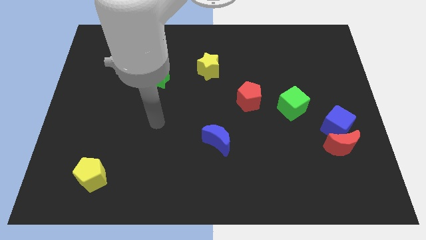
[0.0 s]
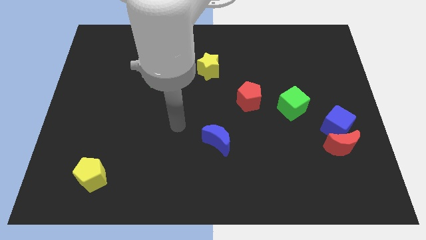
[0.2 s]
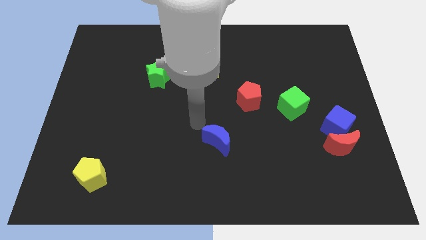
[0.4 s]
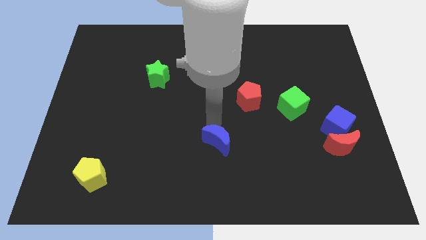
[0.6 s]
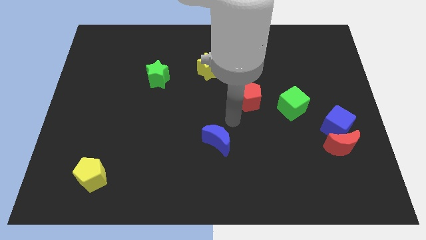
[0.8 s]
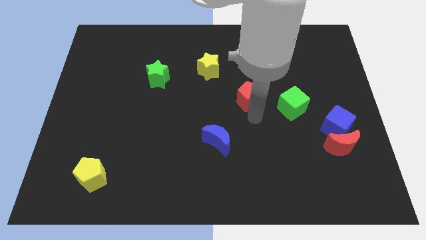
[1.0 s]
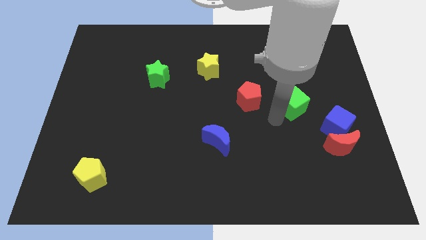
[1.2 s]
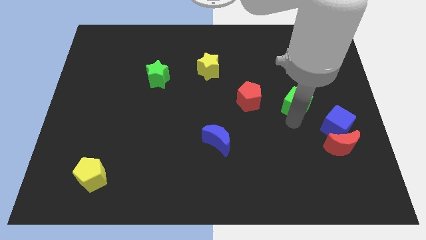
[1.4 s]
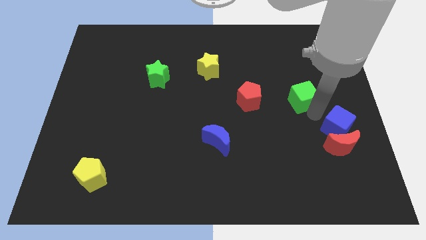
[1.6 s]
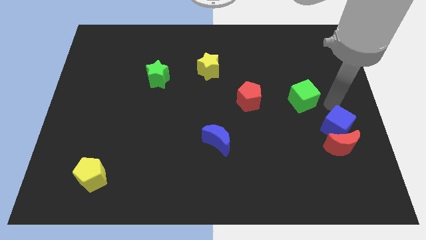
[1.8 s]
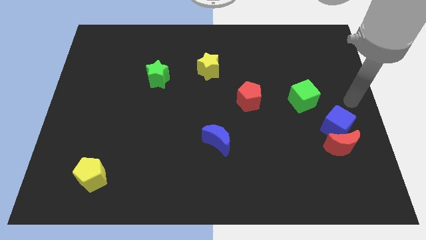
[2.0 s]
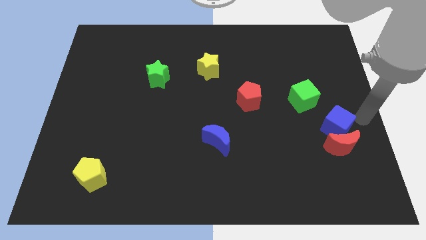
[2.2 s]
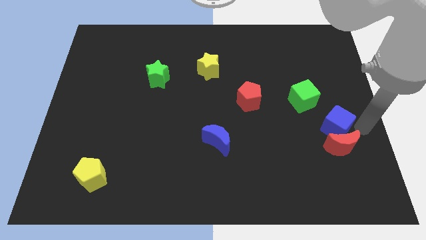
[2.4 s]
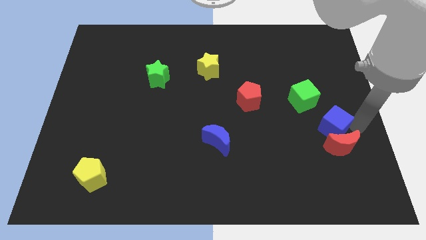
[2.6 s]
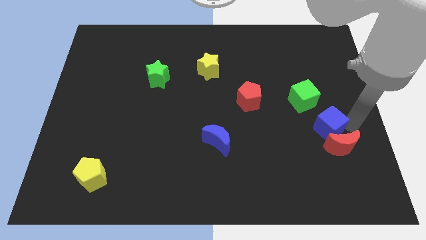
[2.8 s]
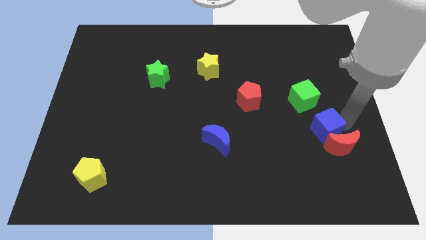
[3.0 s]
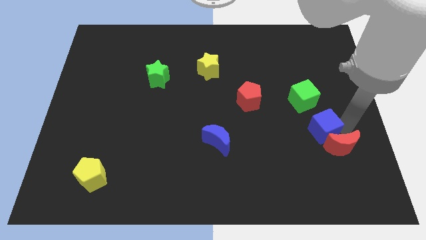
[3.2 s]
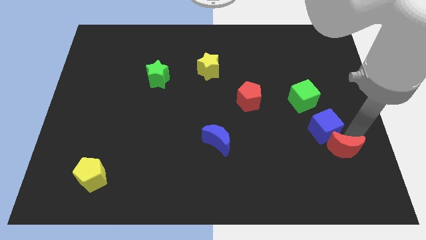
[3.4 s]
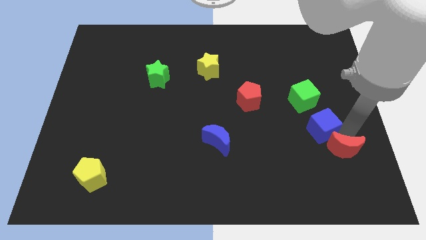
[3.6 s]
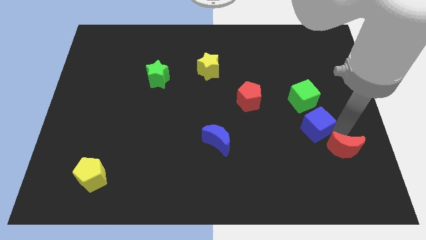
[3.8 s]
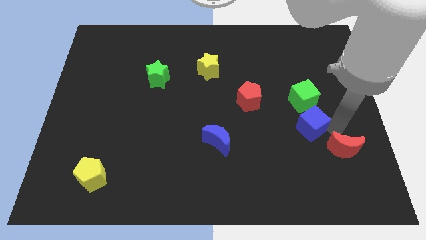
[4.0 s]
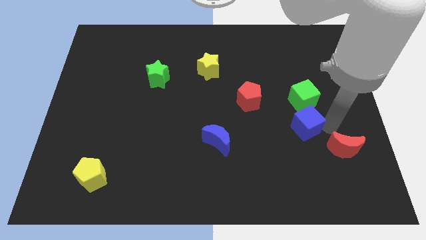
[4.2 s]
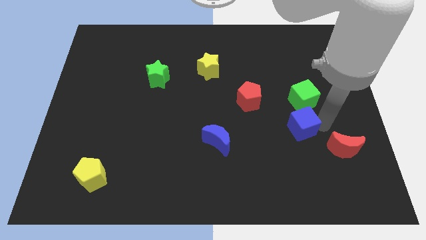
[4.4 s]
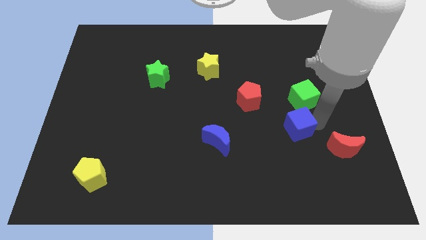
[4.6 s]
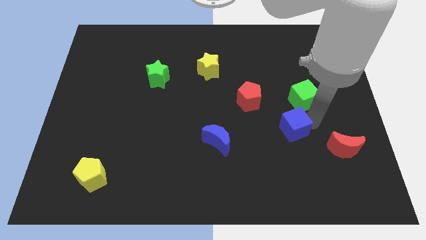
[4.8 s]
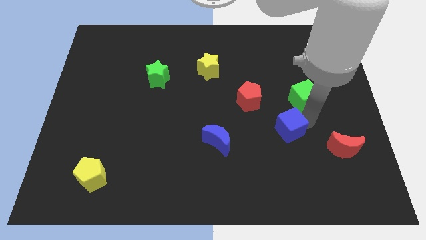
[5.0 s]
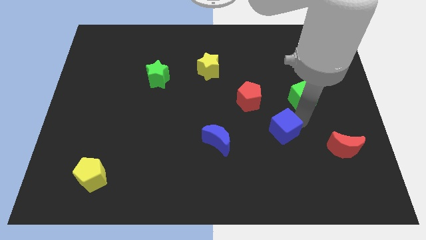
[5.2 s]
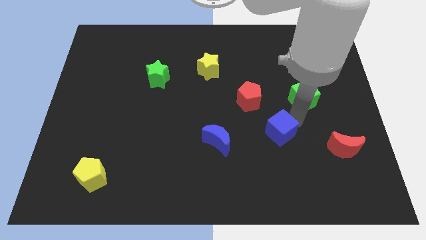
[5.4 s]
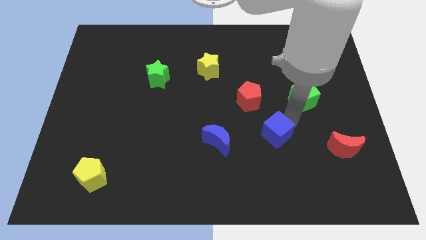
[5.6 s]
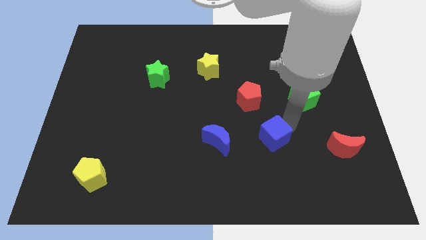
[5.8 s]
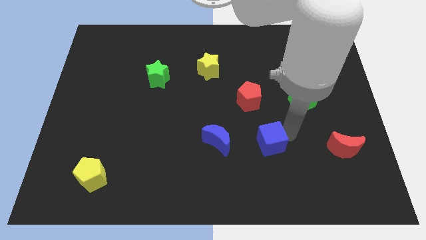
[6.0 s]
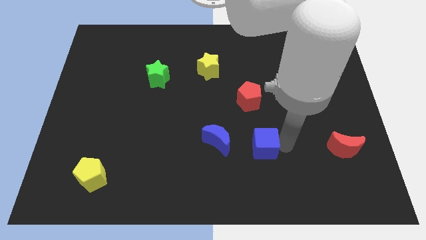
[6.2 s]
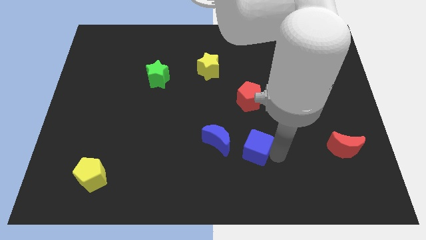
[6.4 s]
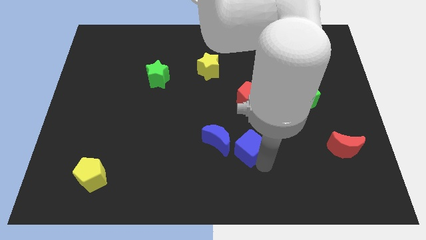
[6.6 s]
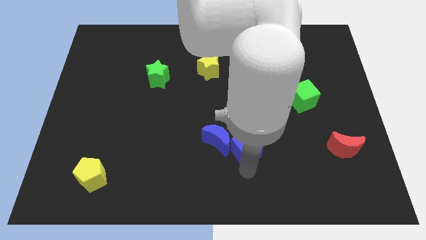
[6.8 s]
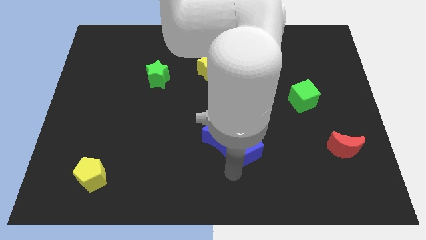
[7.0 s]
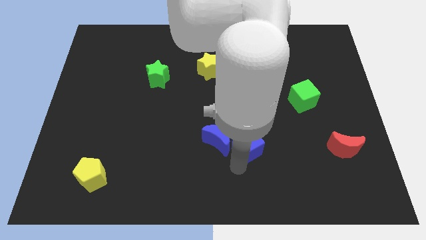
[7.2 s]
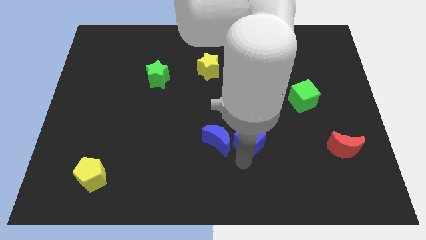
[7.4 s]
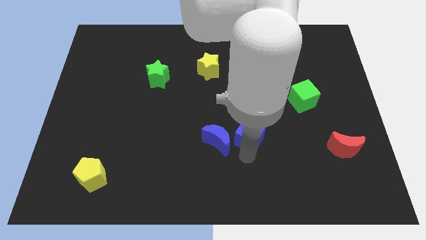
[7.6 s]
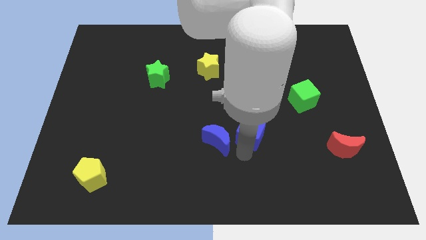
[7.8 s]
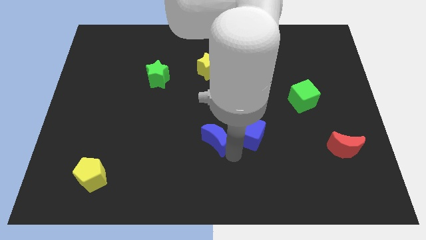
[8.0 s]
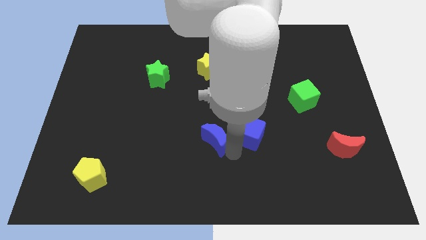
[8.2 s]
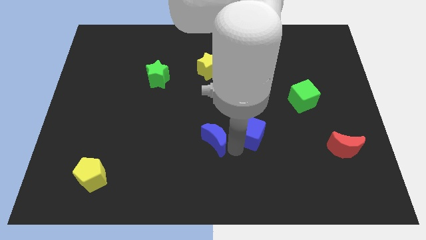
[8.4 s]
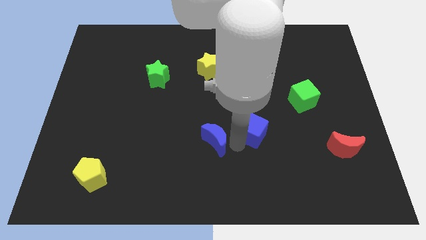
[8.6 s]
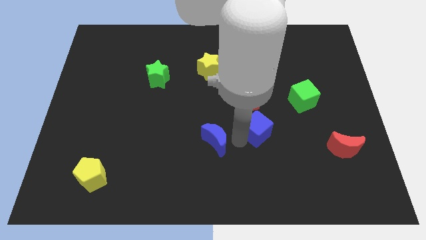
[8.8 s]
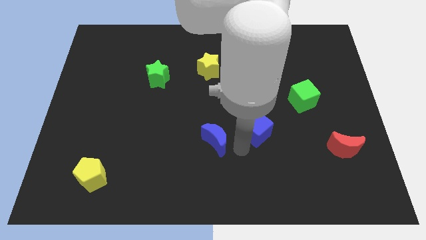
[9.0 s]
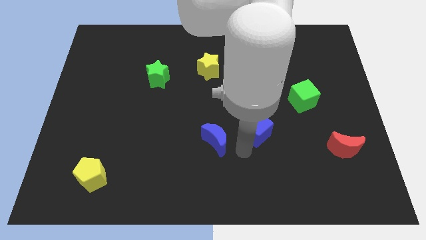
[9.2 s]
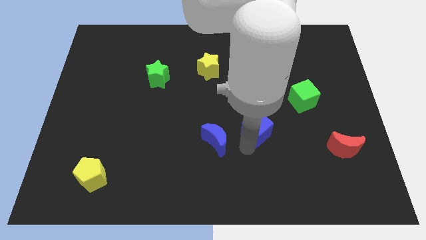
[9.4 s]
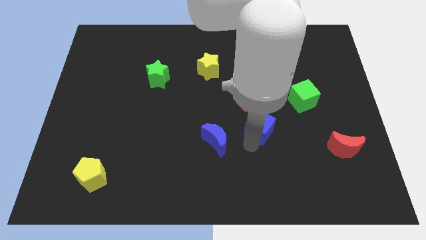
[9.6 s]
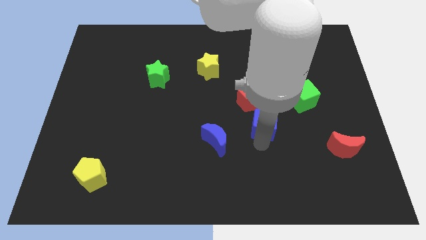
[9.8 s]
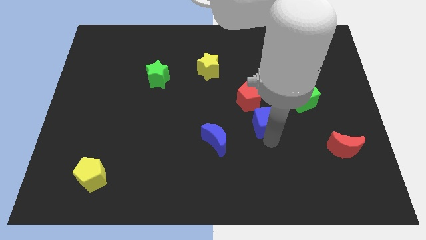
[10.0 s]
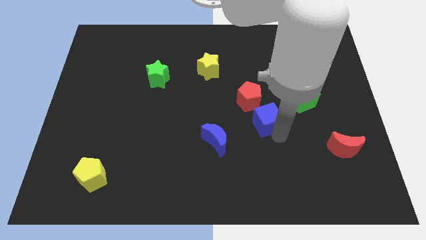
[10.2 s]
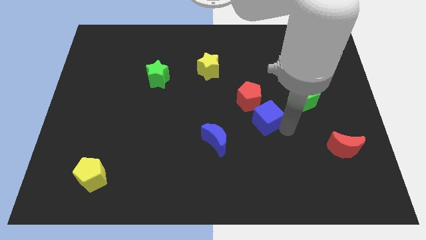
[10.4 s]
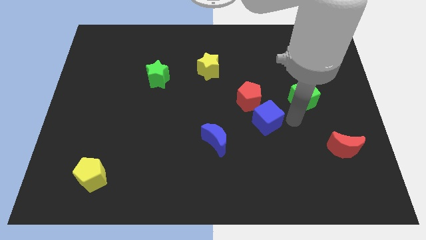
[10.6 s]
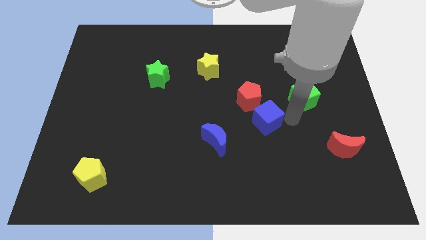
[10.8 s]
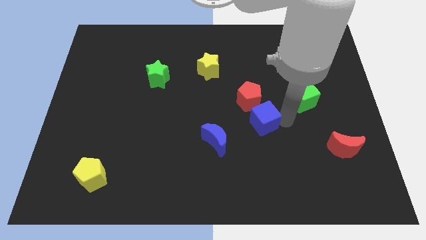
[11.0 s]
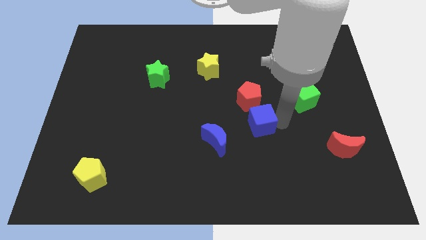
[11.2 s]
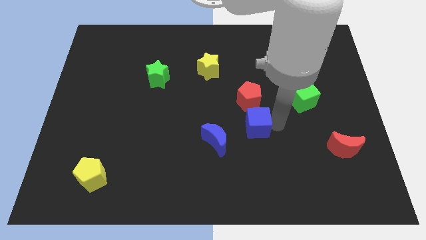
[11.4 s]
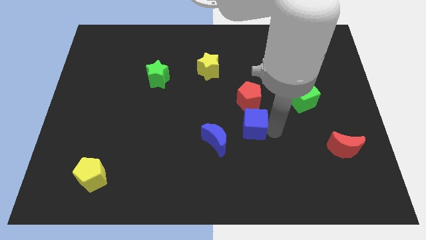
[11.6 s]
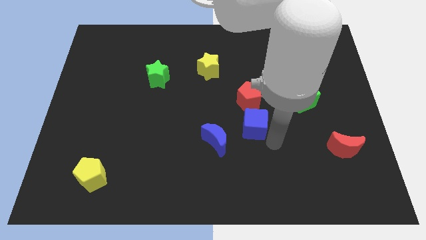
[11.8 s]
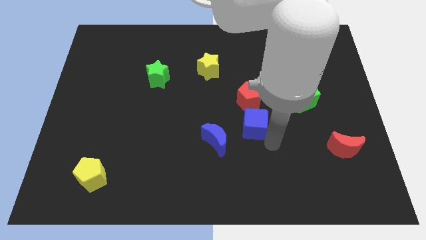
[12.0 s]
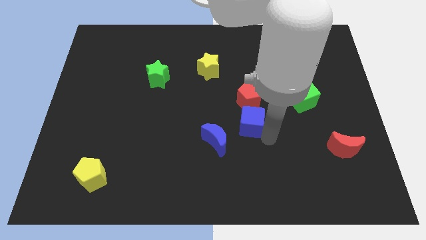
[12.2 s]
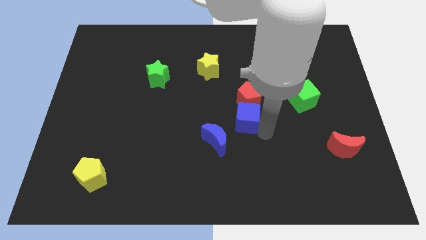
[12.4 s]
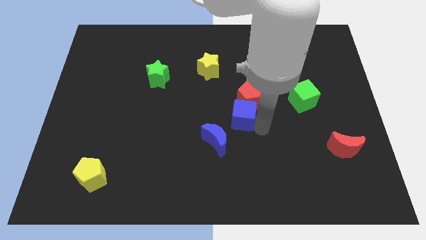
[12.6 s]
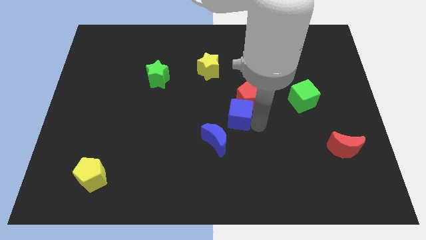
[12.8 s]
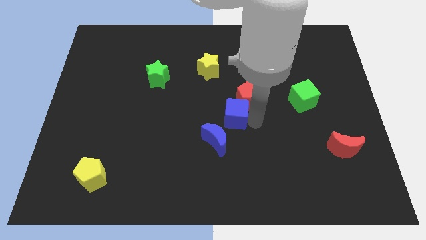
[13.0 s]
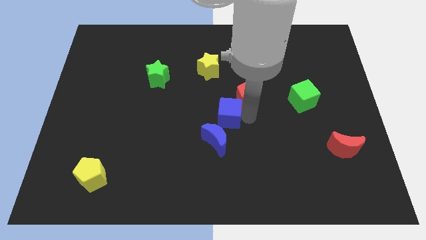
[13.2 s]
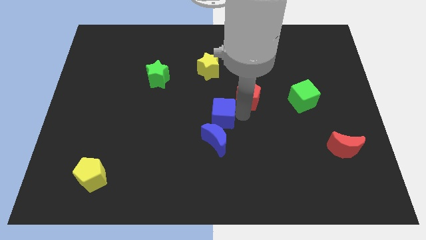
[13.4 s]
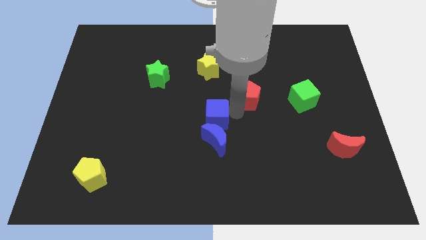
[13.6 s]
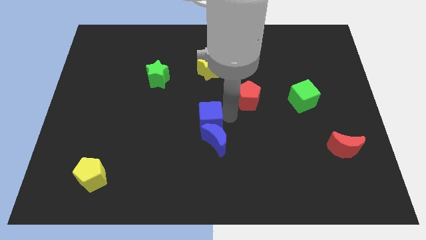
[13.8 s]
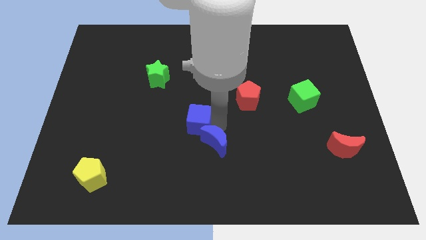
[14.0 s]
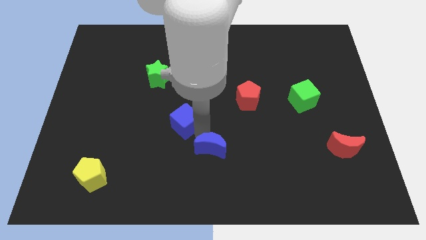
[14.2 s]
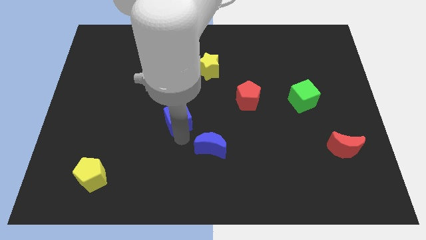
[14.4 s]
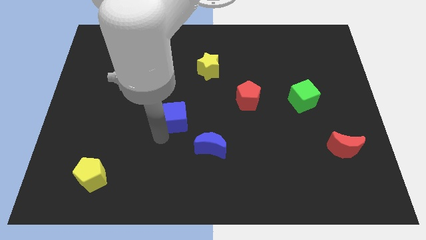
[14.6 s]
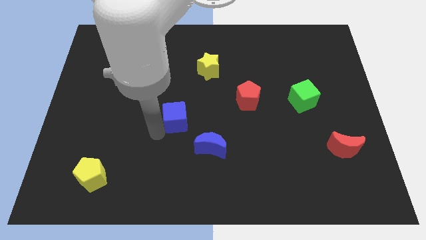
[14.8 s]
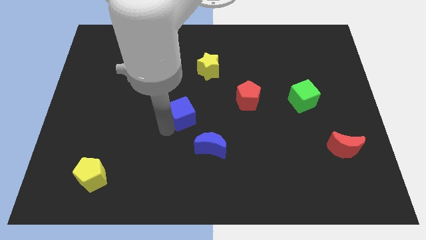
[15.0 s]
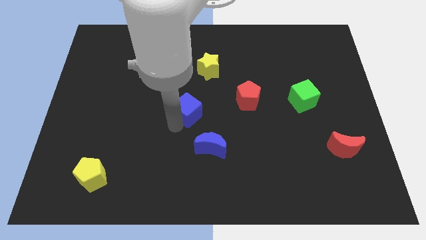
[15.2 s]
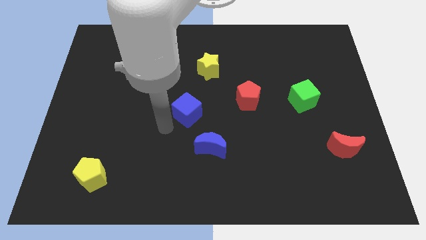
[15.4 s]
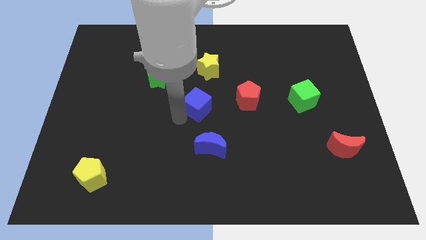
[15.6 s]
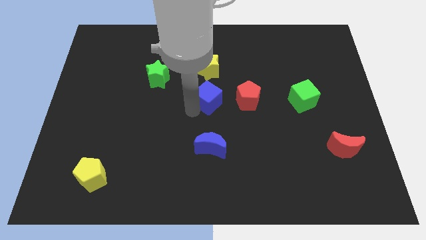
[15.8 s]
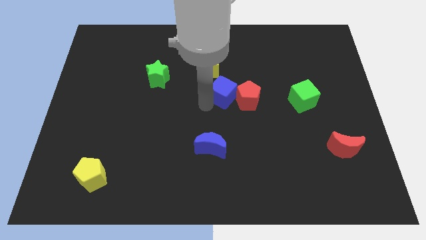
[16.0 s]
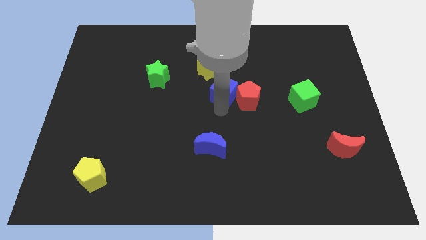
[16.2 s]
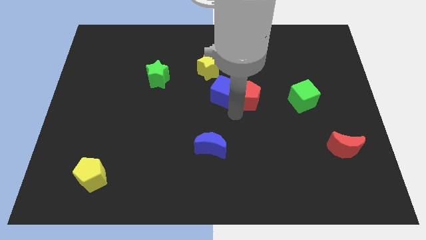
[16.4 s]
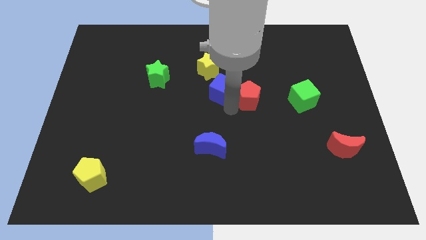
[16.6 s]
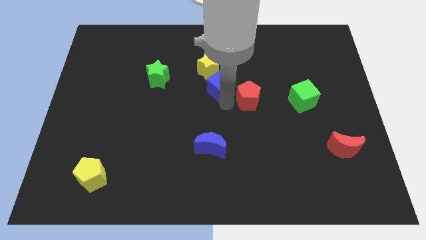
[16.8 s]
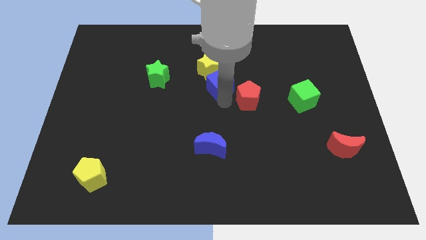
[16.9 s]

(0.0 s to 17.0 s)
put the blue cube close to the yellow star
